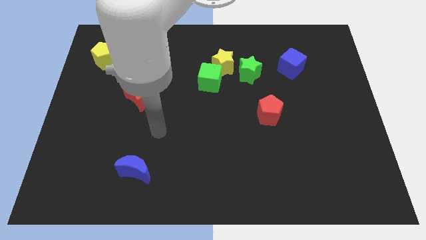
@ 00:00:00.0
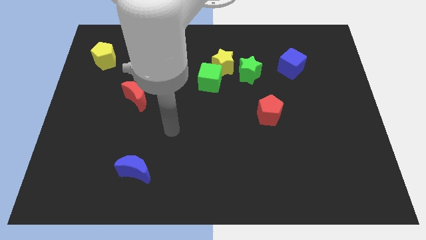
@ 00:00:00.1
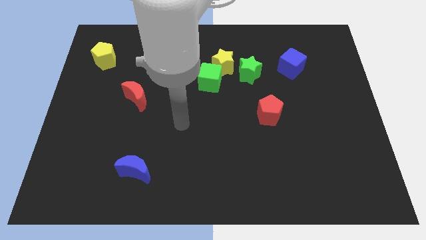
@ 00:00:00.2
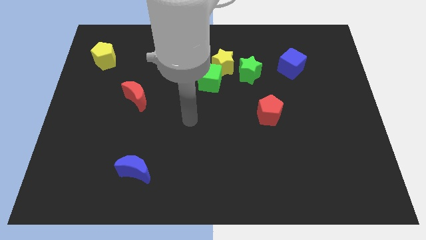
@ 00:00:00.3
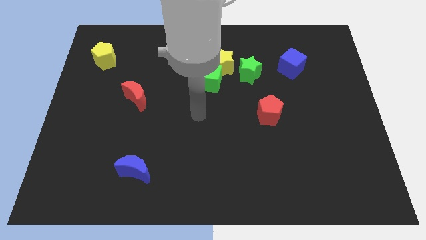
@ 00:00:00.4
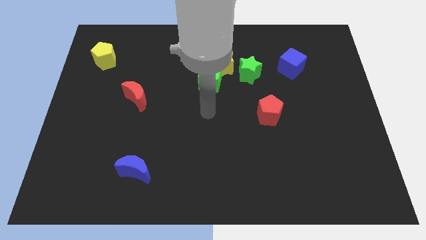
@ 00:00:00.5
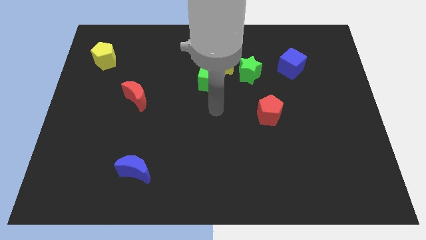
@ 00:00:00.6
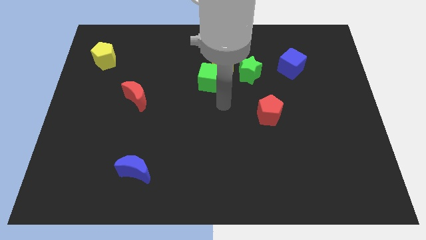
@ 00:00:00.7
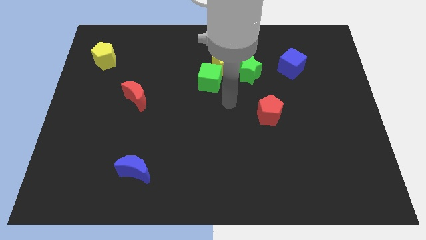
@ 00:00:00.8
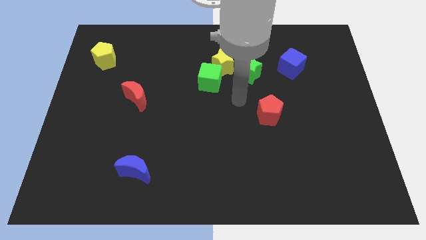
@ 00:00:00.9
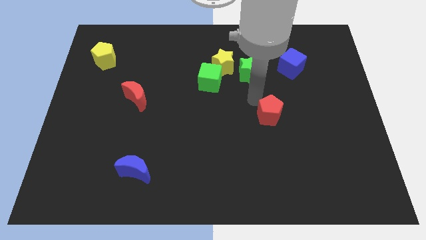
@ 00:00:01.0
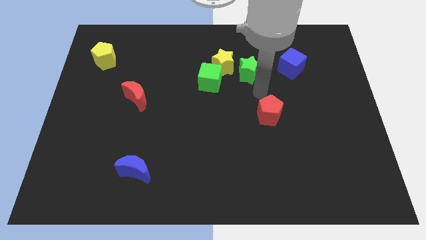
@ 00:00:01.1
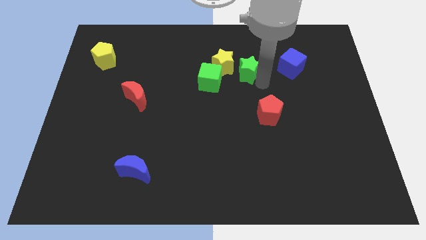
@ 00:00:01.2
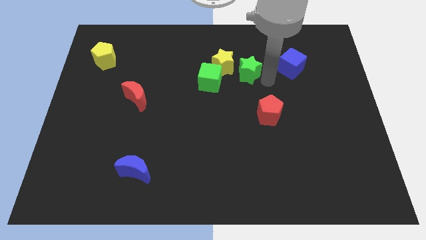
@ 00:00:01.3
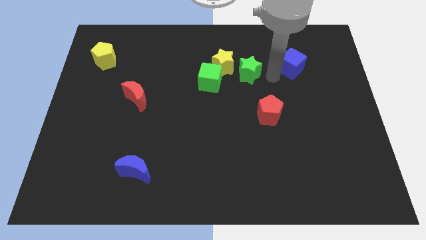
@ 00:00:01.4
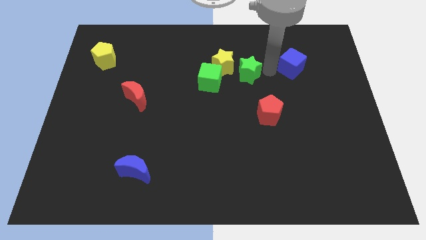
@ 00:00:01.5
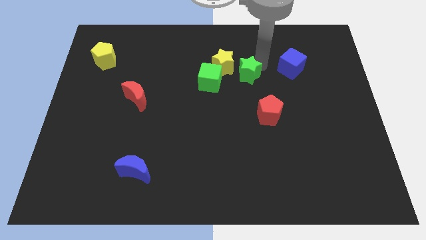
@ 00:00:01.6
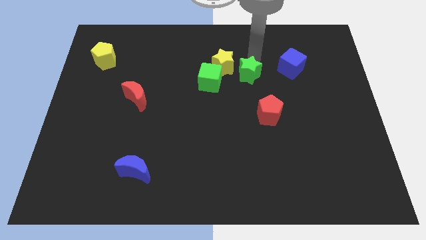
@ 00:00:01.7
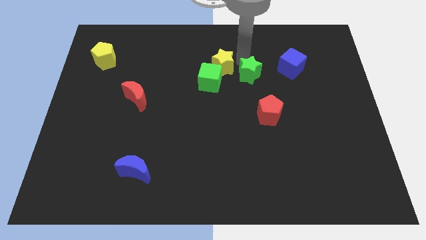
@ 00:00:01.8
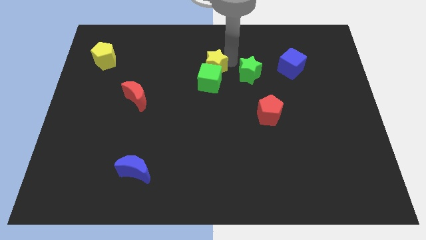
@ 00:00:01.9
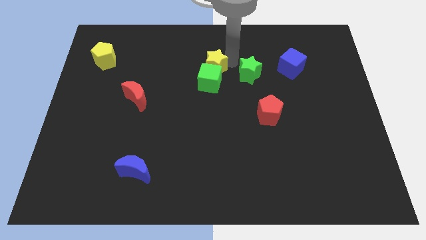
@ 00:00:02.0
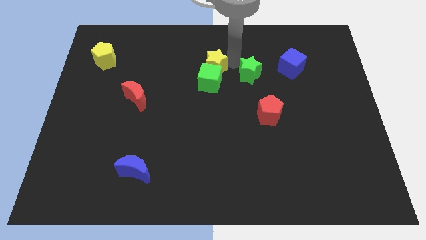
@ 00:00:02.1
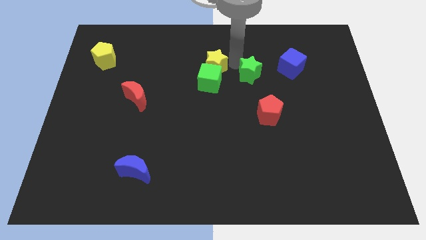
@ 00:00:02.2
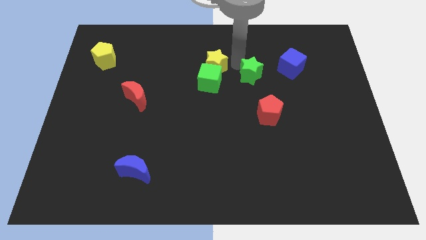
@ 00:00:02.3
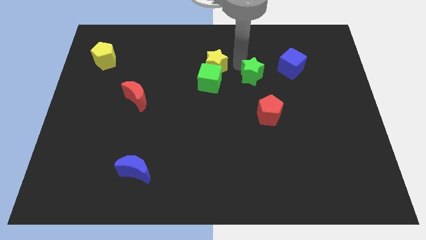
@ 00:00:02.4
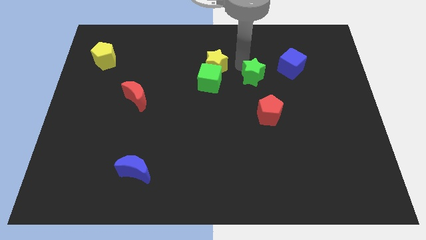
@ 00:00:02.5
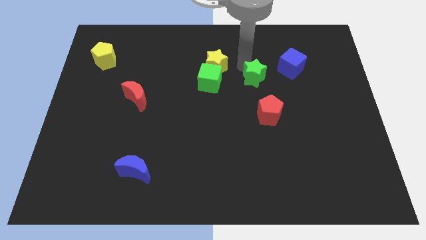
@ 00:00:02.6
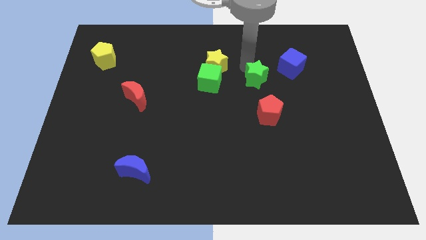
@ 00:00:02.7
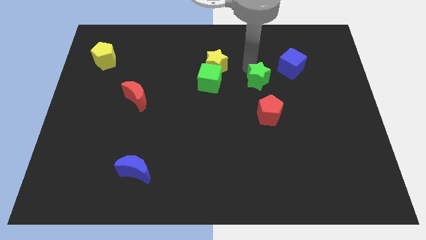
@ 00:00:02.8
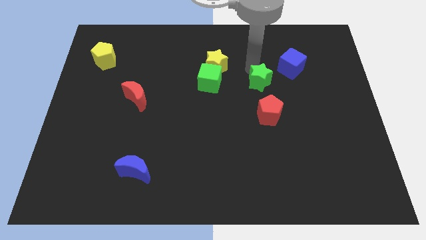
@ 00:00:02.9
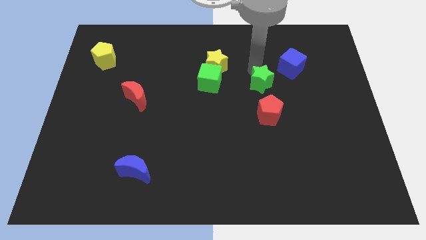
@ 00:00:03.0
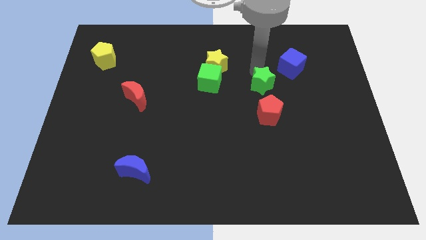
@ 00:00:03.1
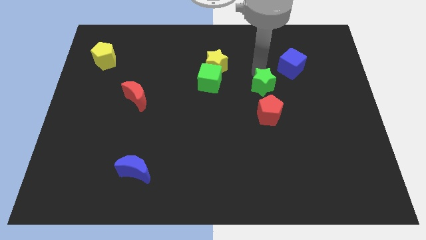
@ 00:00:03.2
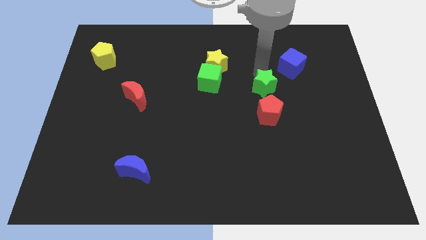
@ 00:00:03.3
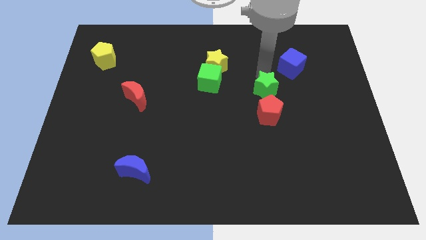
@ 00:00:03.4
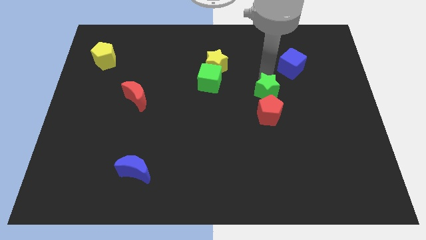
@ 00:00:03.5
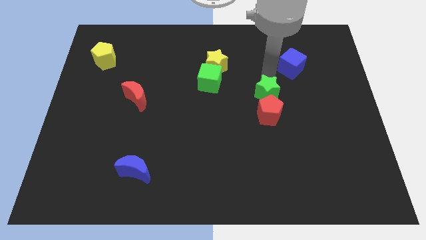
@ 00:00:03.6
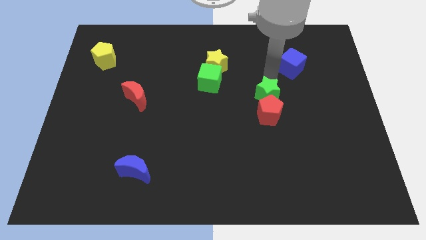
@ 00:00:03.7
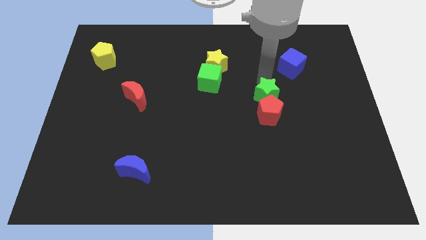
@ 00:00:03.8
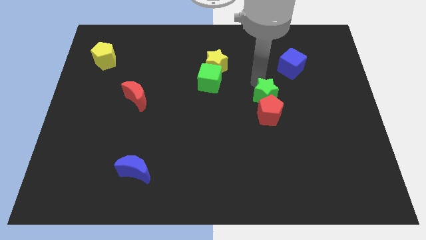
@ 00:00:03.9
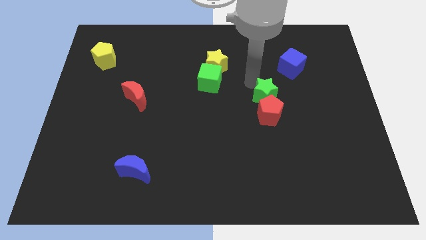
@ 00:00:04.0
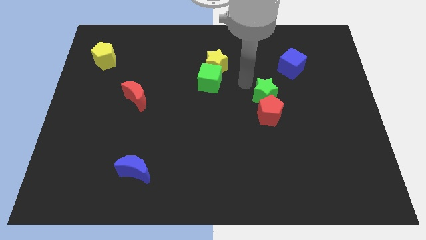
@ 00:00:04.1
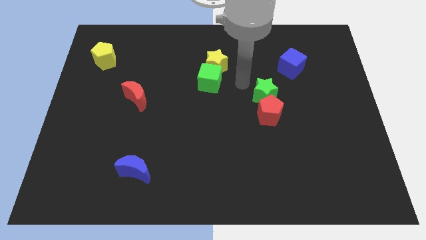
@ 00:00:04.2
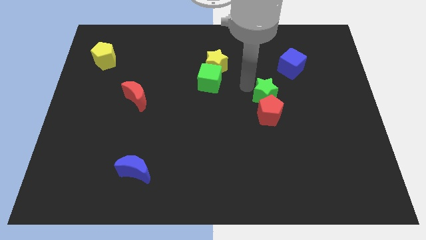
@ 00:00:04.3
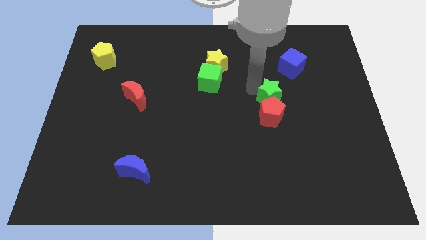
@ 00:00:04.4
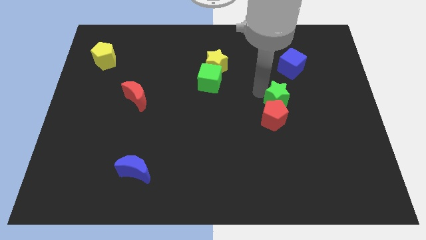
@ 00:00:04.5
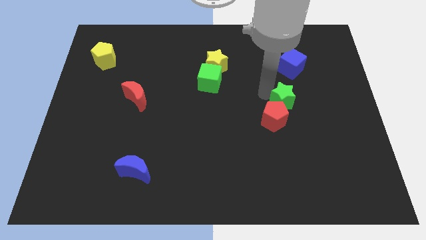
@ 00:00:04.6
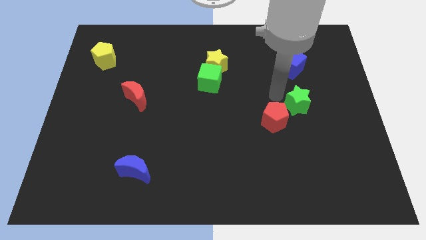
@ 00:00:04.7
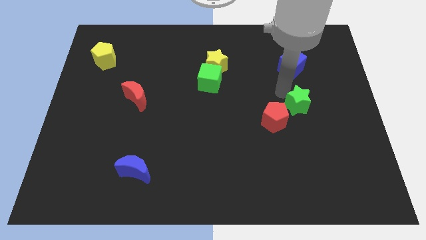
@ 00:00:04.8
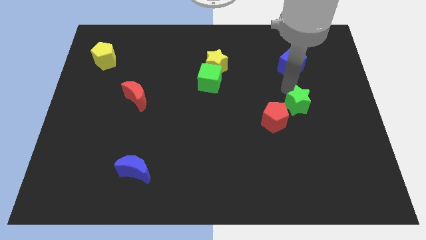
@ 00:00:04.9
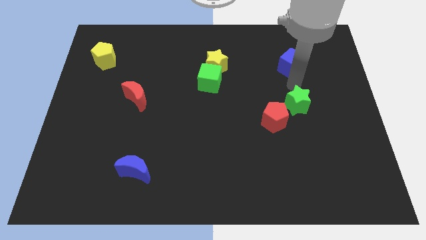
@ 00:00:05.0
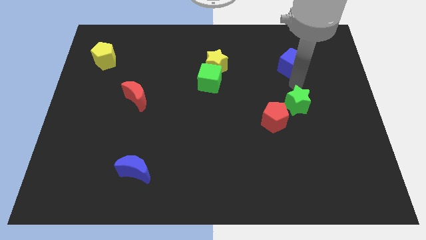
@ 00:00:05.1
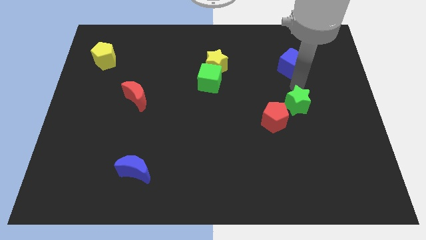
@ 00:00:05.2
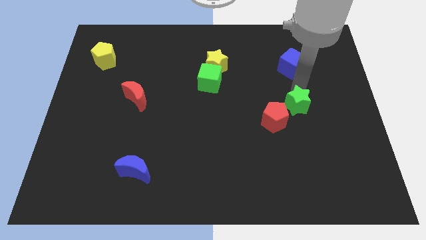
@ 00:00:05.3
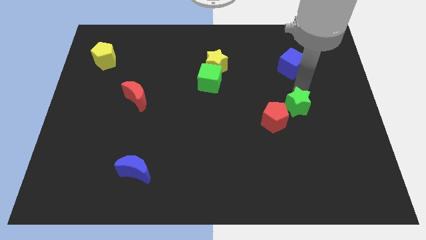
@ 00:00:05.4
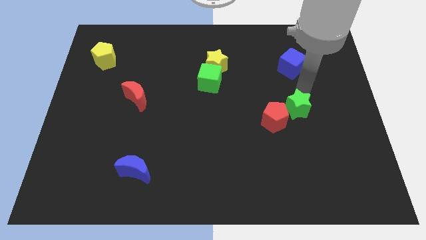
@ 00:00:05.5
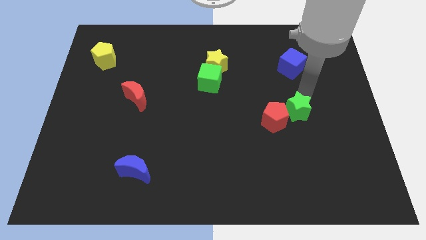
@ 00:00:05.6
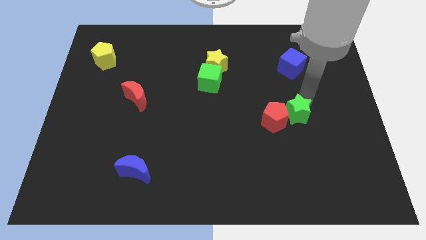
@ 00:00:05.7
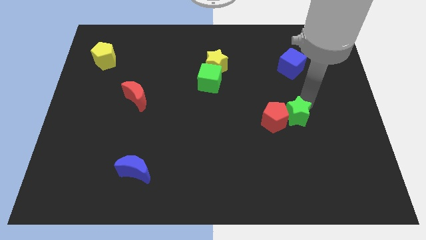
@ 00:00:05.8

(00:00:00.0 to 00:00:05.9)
slide the green star to the bottom right of the red pentagon
